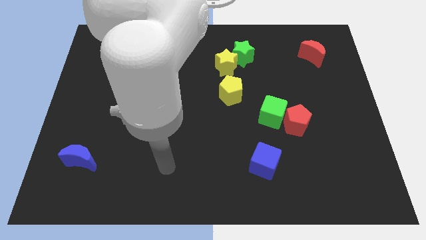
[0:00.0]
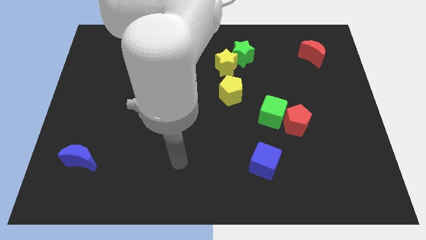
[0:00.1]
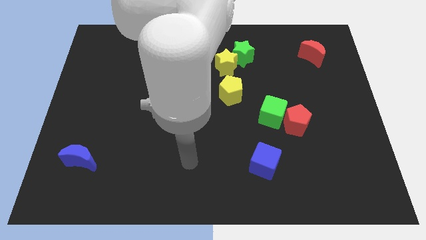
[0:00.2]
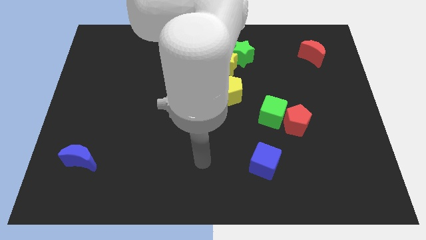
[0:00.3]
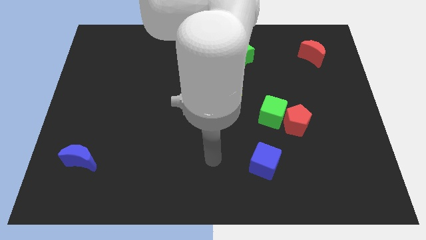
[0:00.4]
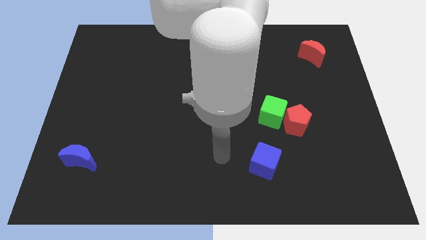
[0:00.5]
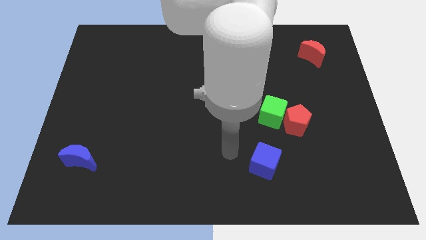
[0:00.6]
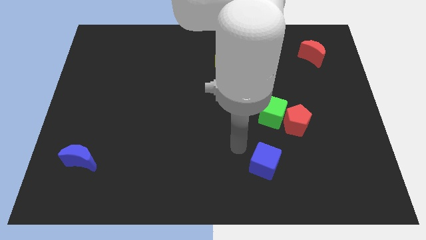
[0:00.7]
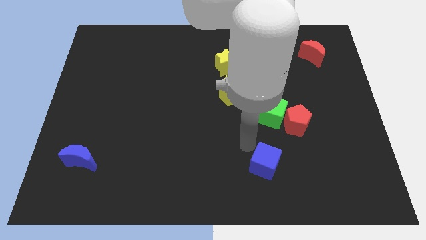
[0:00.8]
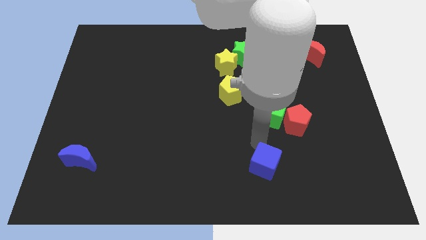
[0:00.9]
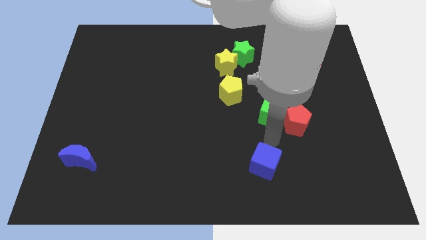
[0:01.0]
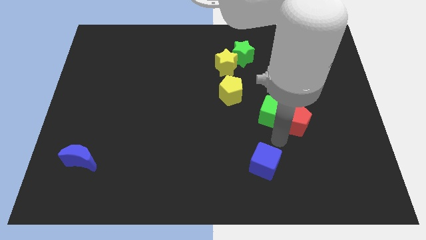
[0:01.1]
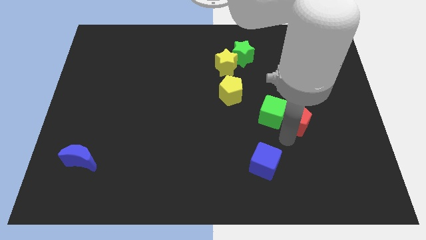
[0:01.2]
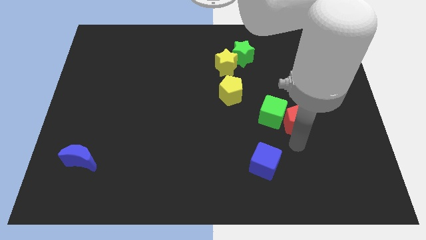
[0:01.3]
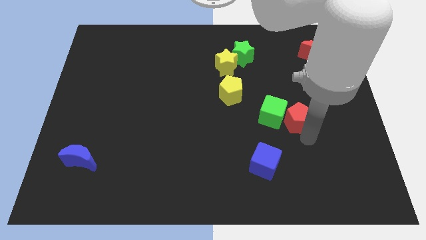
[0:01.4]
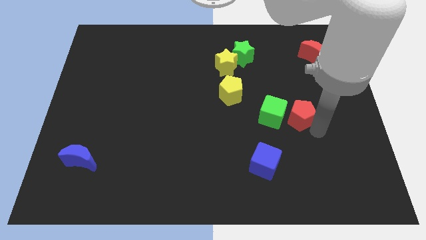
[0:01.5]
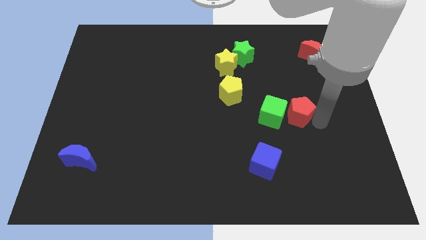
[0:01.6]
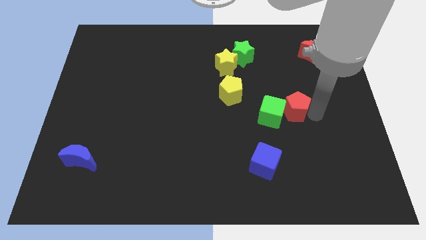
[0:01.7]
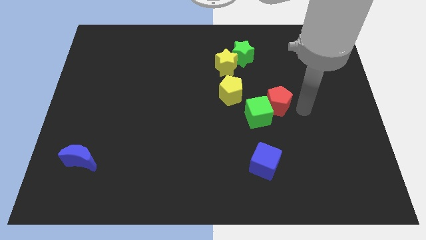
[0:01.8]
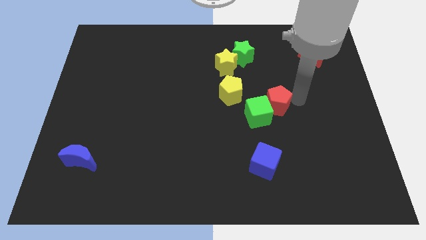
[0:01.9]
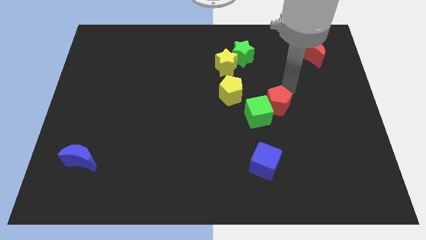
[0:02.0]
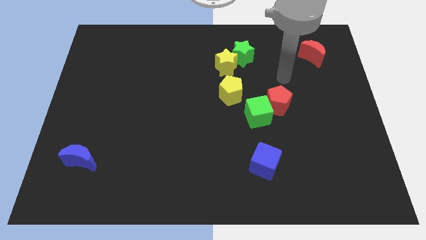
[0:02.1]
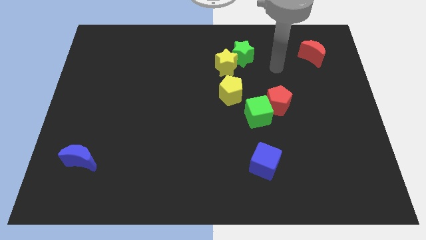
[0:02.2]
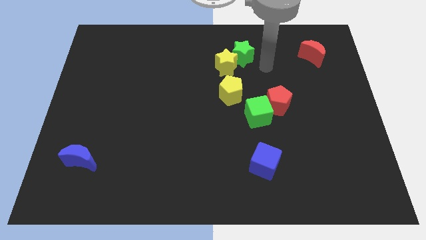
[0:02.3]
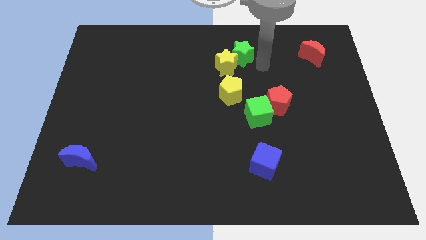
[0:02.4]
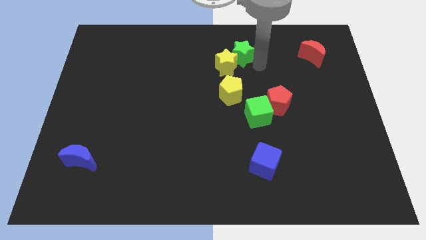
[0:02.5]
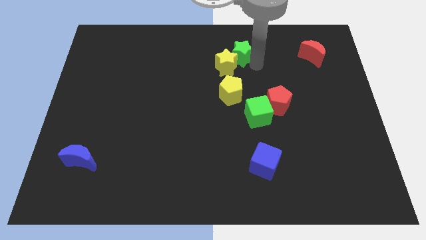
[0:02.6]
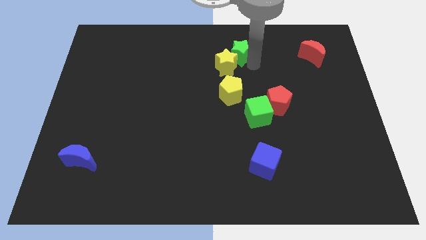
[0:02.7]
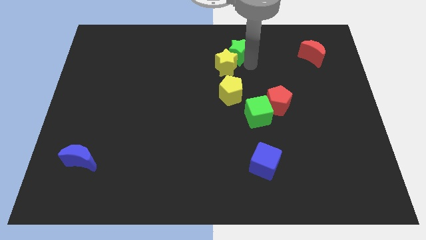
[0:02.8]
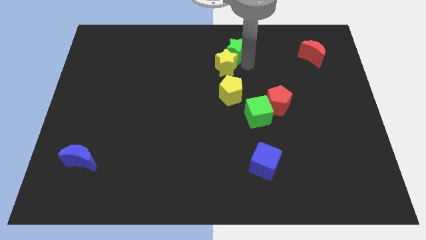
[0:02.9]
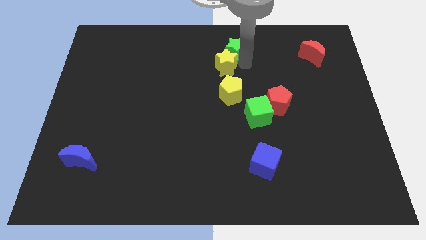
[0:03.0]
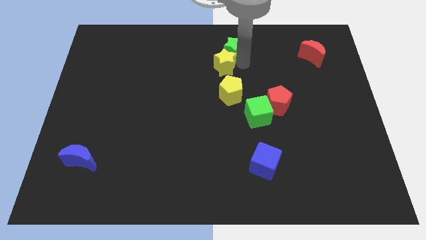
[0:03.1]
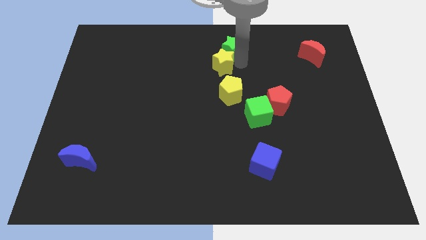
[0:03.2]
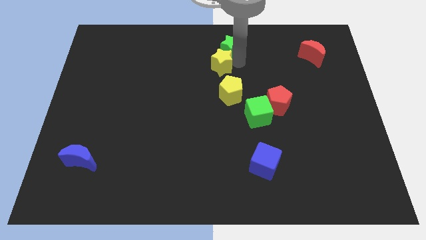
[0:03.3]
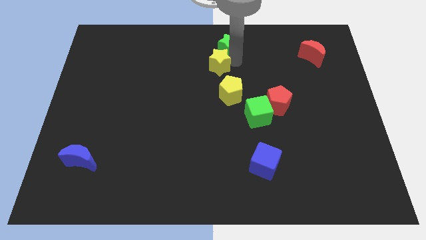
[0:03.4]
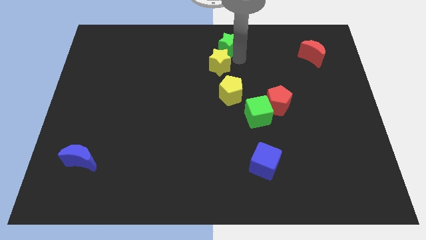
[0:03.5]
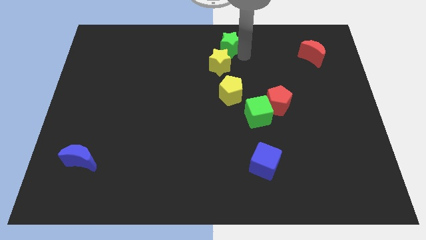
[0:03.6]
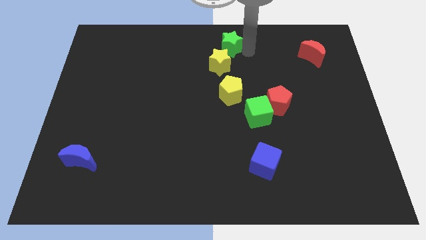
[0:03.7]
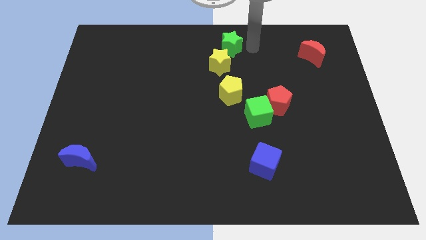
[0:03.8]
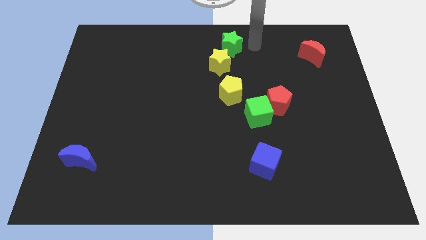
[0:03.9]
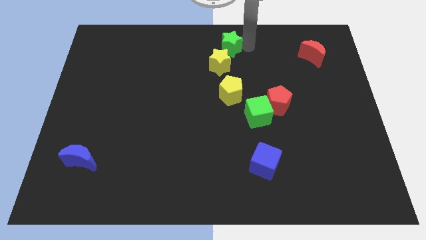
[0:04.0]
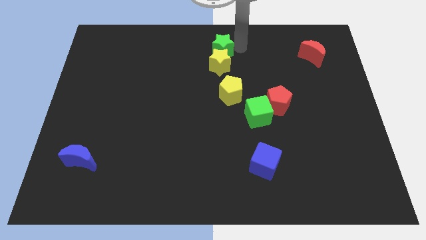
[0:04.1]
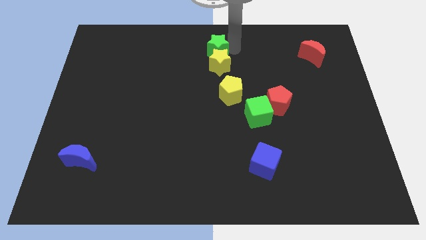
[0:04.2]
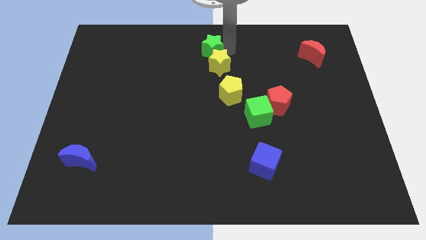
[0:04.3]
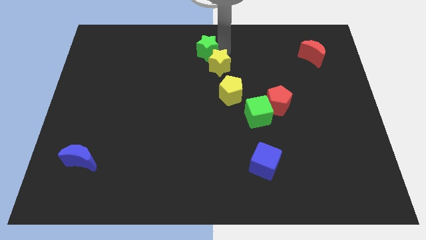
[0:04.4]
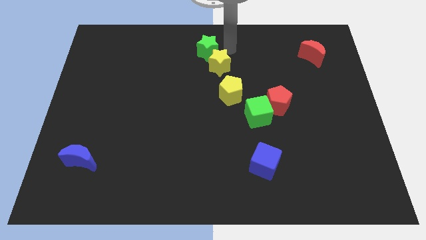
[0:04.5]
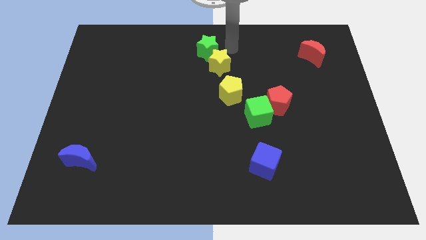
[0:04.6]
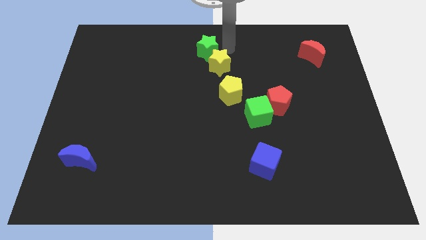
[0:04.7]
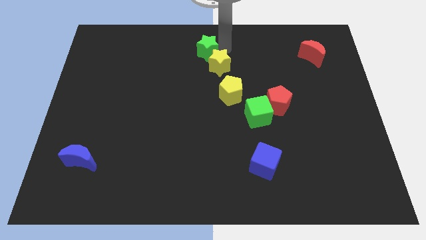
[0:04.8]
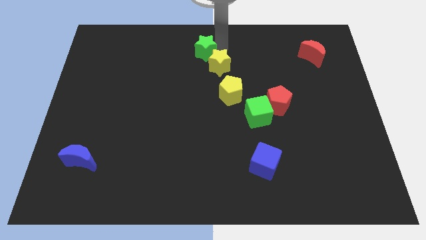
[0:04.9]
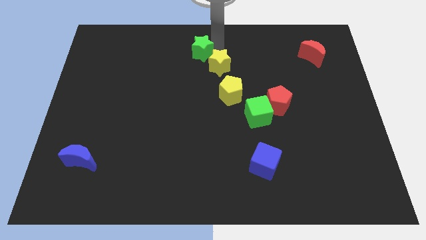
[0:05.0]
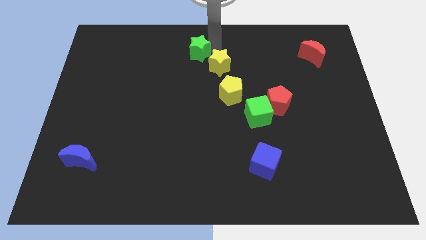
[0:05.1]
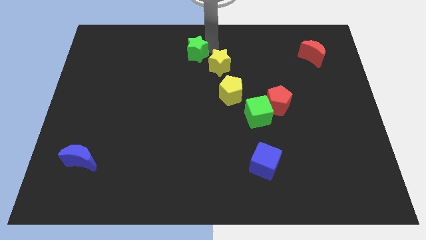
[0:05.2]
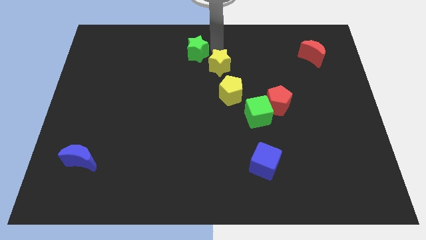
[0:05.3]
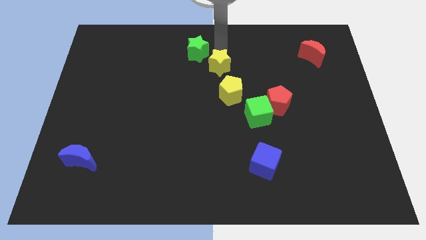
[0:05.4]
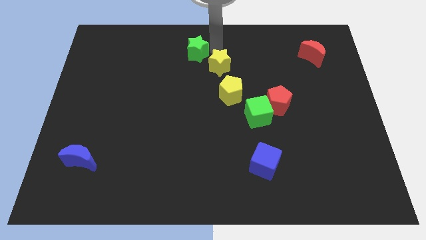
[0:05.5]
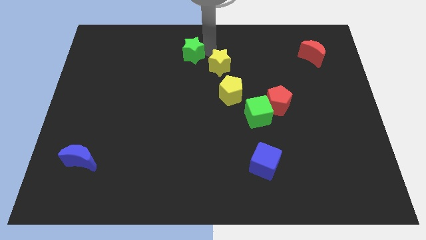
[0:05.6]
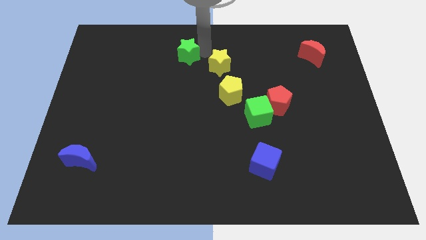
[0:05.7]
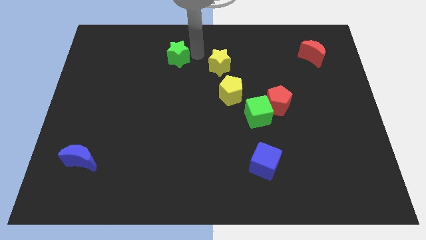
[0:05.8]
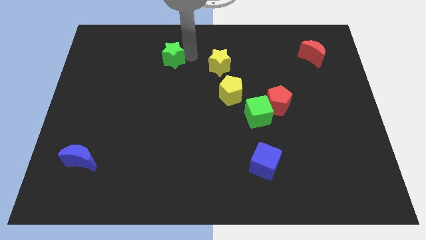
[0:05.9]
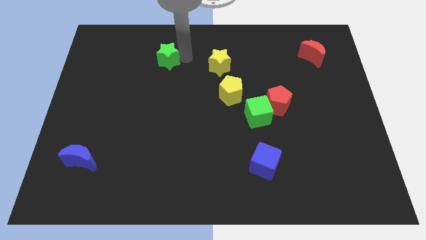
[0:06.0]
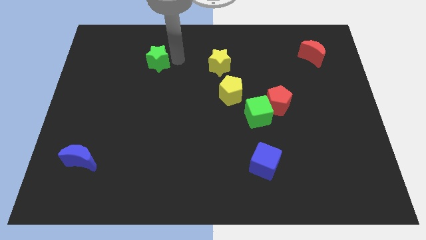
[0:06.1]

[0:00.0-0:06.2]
push the green star left

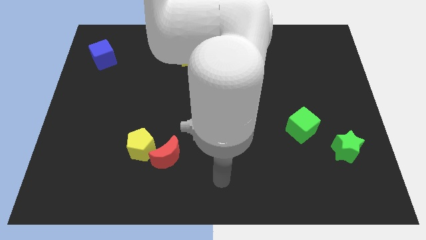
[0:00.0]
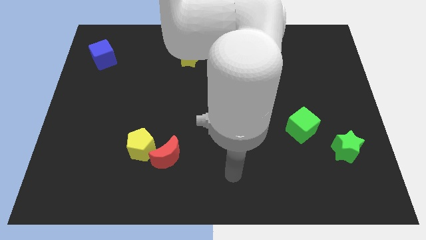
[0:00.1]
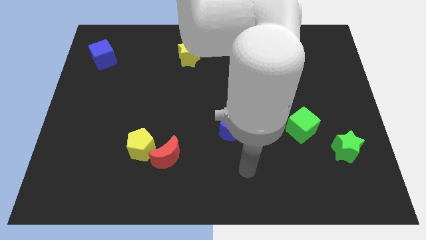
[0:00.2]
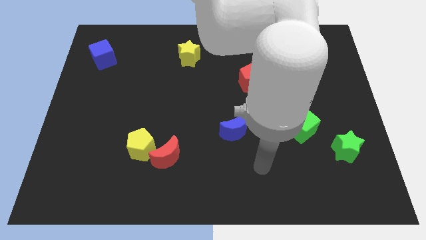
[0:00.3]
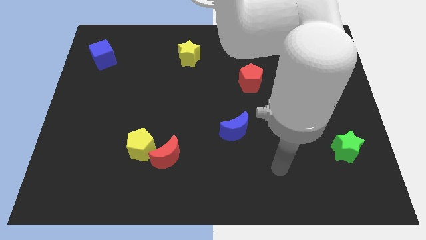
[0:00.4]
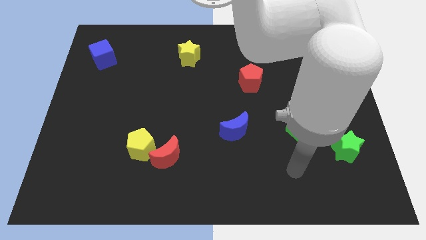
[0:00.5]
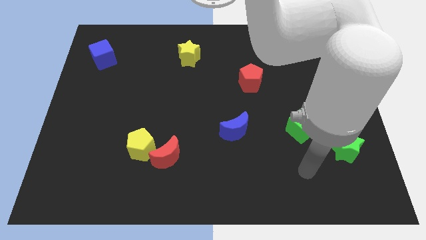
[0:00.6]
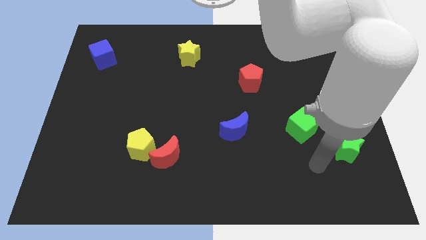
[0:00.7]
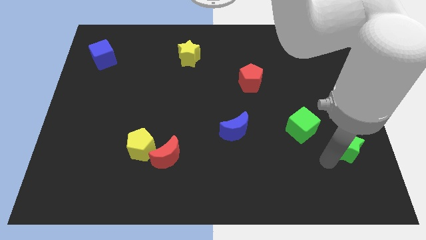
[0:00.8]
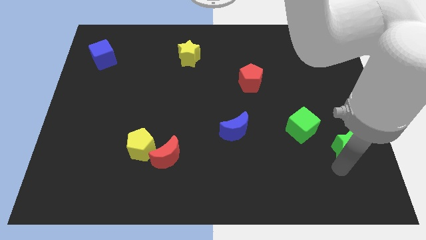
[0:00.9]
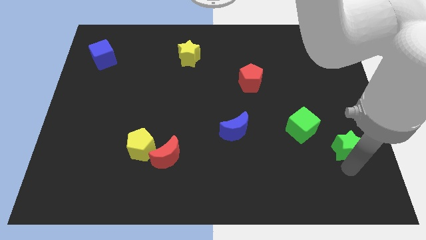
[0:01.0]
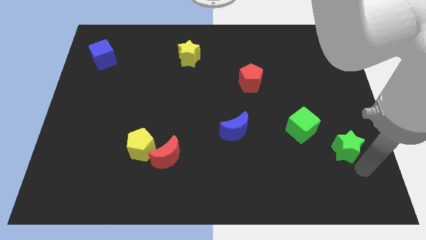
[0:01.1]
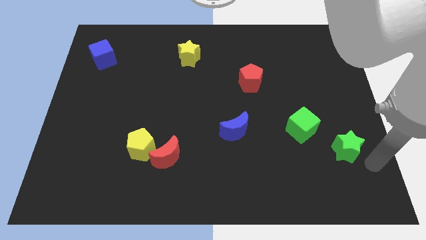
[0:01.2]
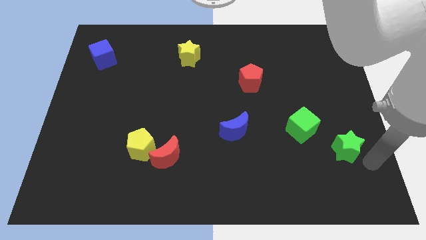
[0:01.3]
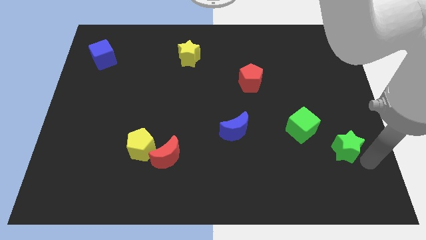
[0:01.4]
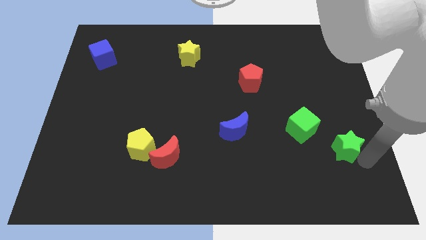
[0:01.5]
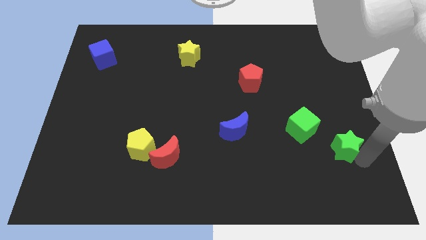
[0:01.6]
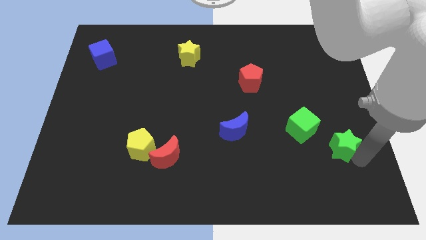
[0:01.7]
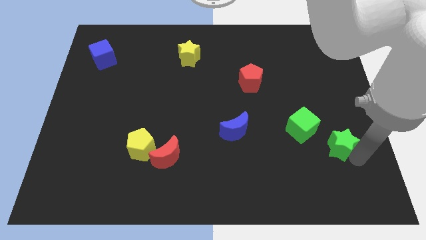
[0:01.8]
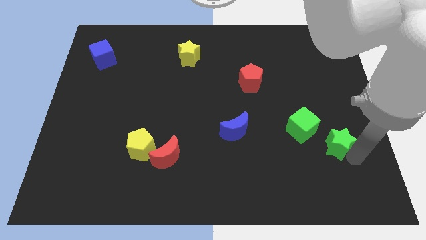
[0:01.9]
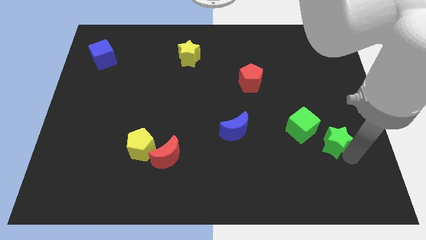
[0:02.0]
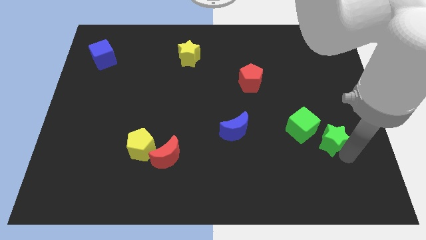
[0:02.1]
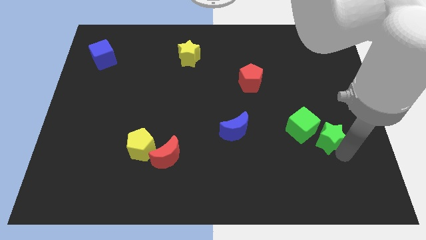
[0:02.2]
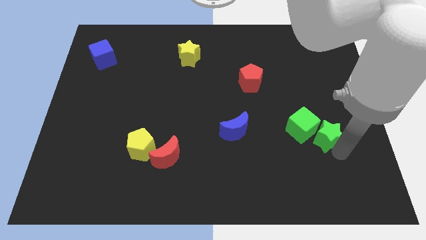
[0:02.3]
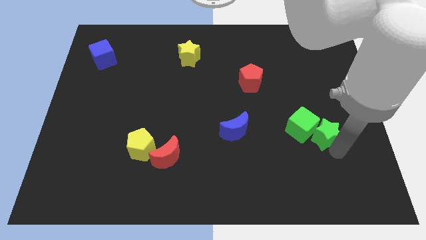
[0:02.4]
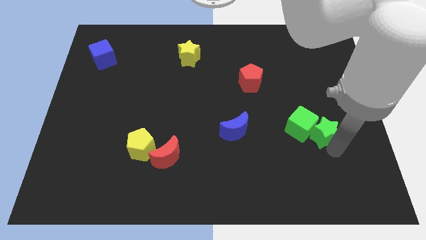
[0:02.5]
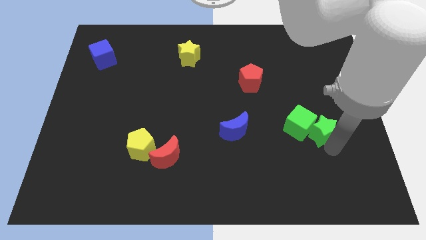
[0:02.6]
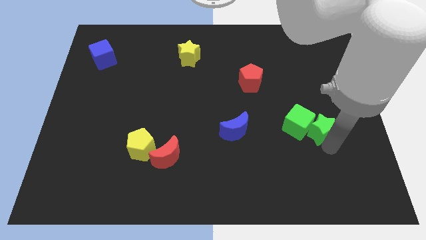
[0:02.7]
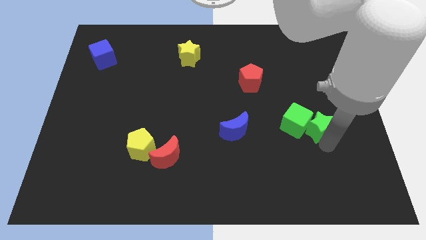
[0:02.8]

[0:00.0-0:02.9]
move the green star diagonally up and left a little
